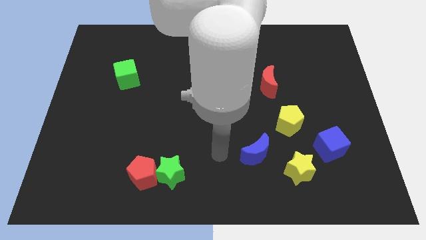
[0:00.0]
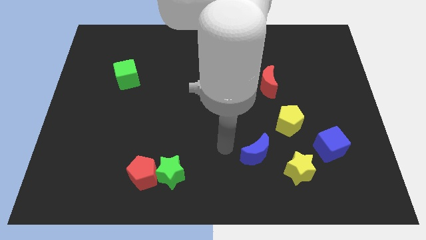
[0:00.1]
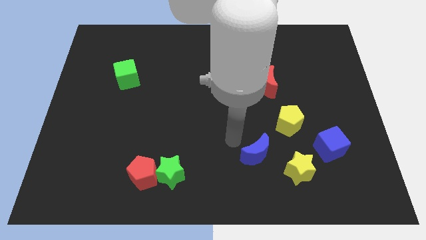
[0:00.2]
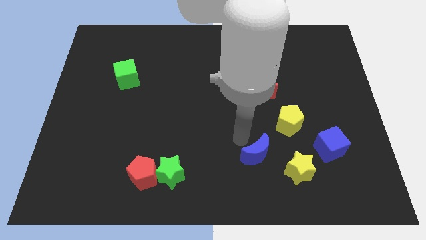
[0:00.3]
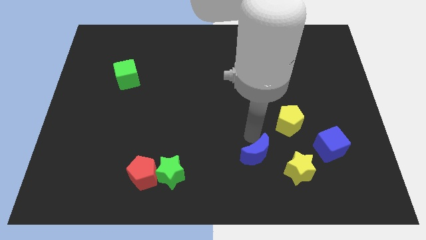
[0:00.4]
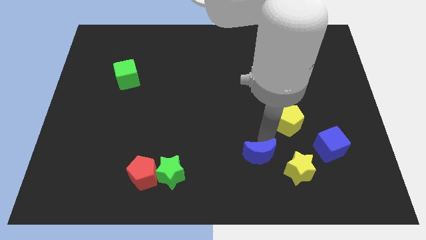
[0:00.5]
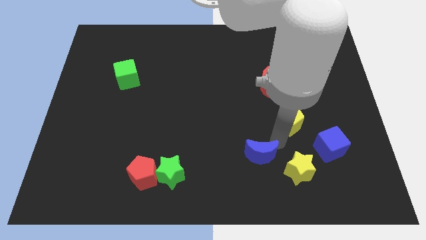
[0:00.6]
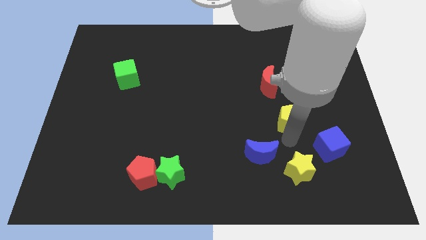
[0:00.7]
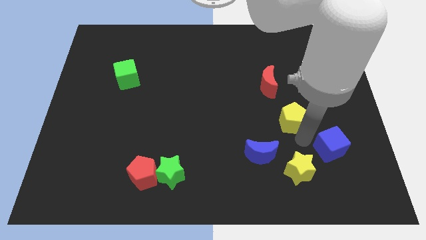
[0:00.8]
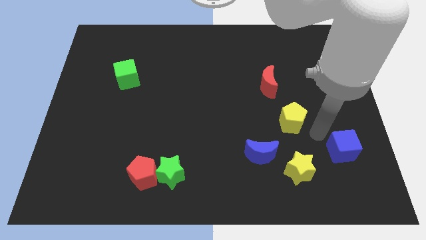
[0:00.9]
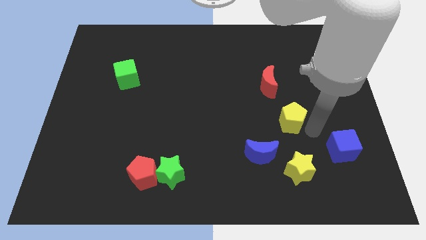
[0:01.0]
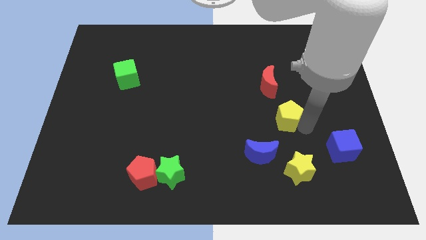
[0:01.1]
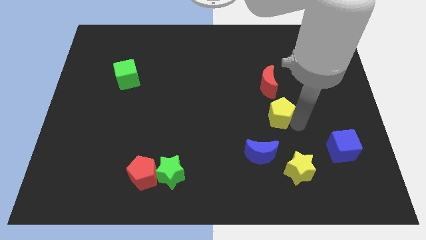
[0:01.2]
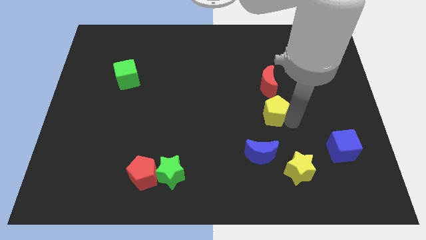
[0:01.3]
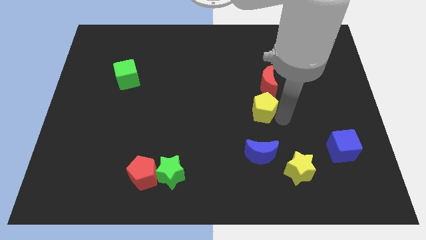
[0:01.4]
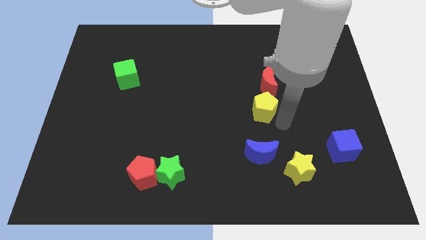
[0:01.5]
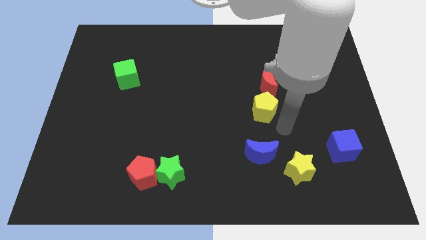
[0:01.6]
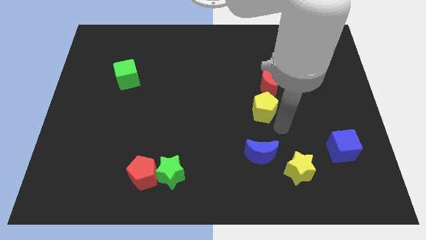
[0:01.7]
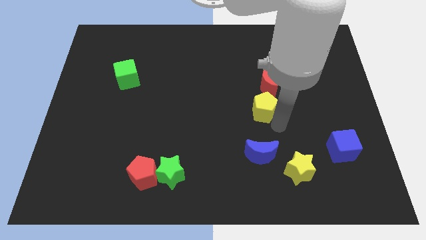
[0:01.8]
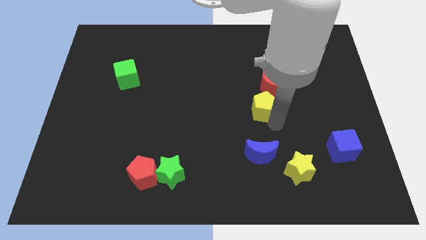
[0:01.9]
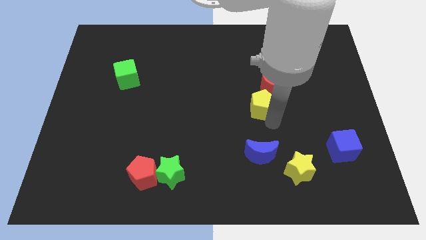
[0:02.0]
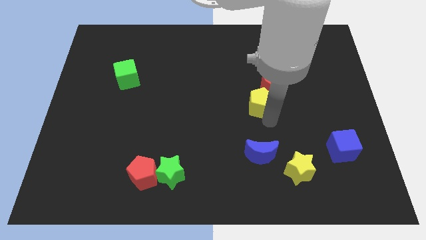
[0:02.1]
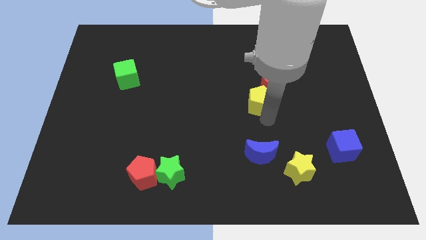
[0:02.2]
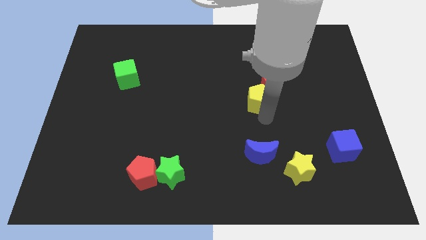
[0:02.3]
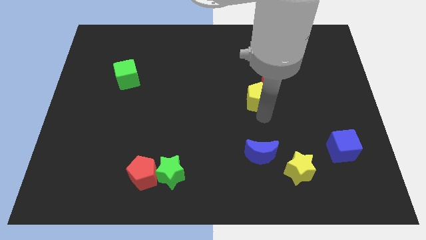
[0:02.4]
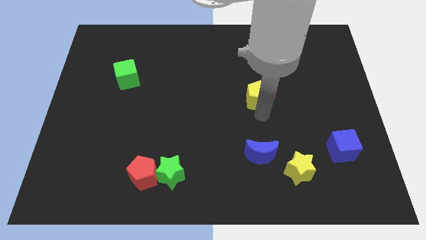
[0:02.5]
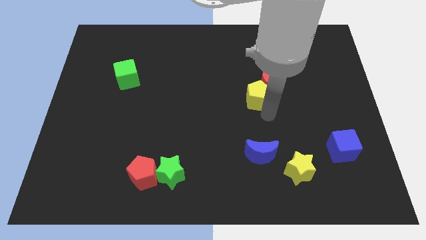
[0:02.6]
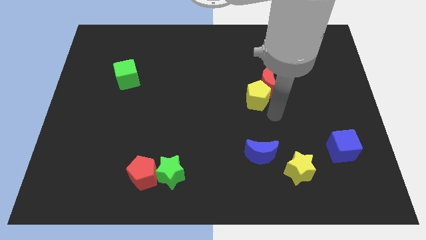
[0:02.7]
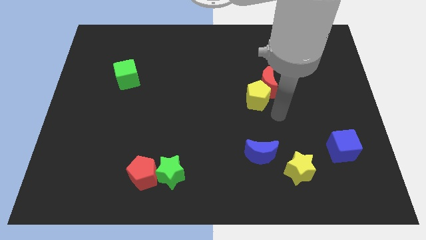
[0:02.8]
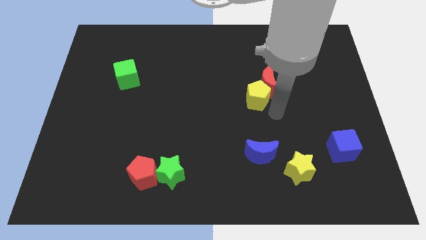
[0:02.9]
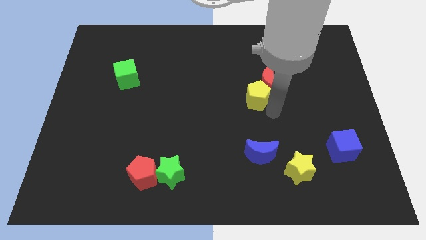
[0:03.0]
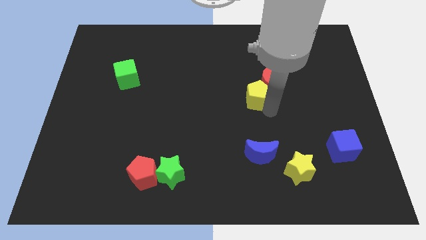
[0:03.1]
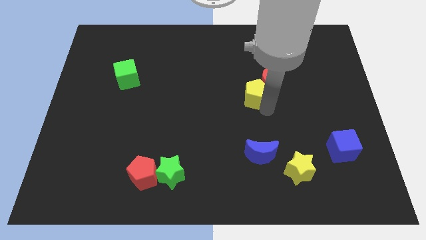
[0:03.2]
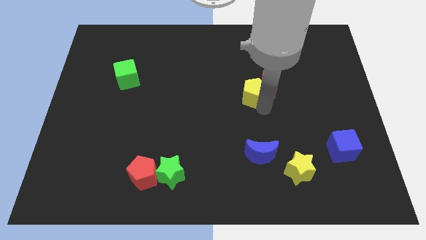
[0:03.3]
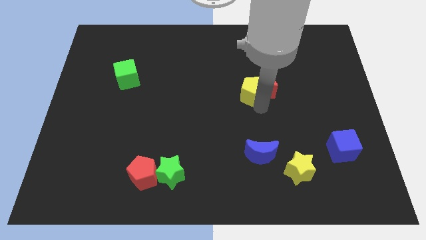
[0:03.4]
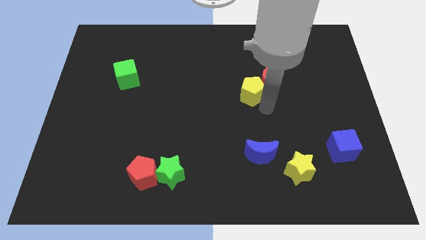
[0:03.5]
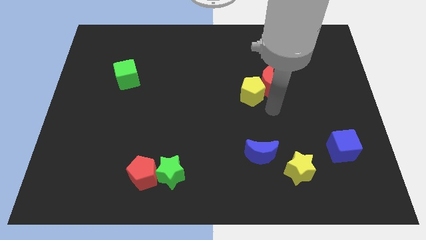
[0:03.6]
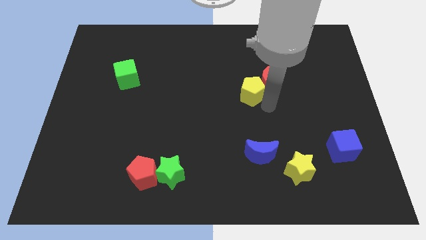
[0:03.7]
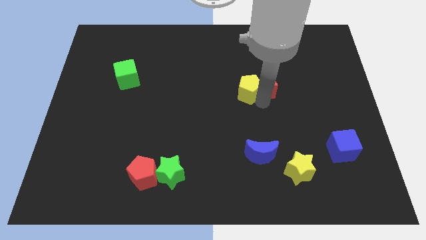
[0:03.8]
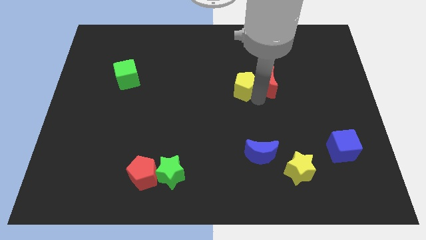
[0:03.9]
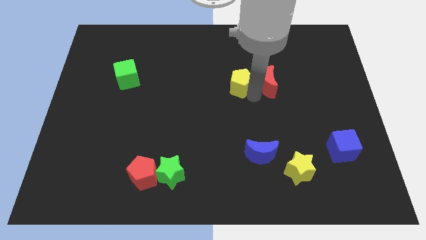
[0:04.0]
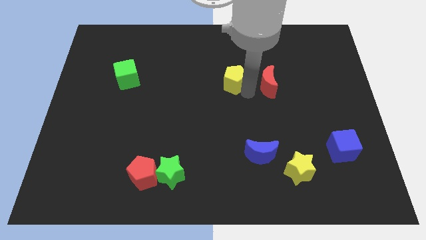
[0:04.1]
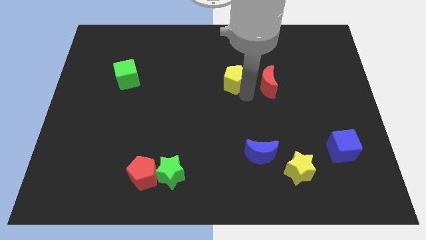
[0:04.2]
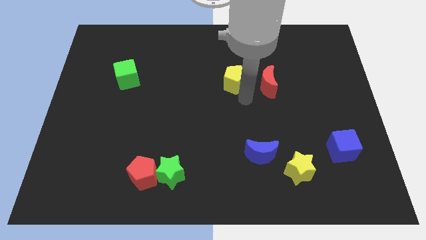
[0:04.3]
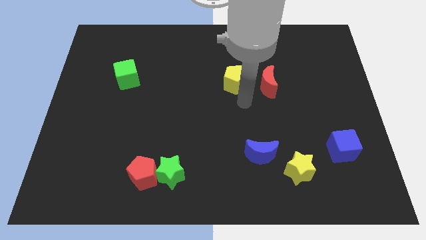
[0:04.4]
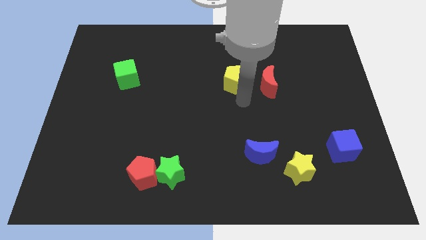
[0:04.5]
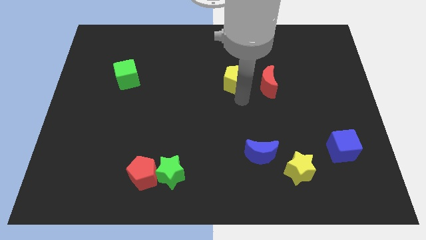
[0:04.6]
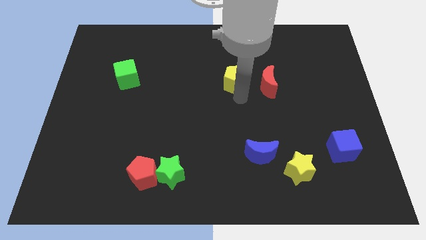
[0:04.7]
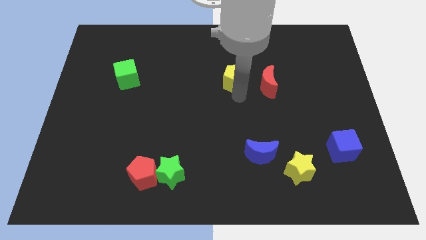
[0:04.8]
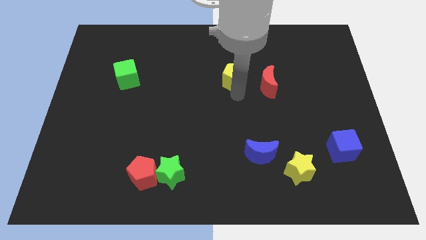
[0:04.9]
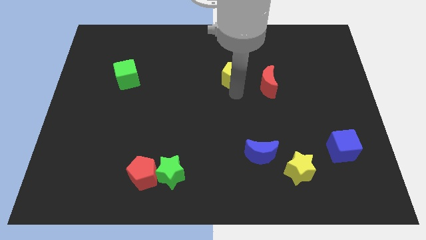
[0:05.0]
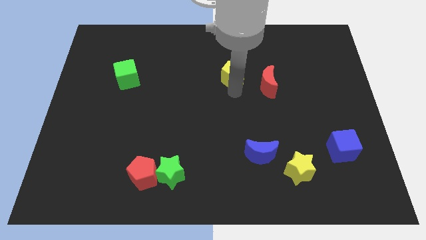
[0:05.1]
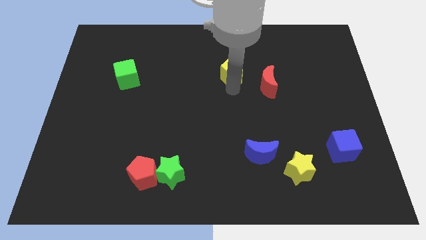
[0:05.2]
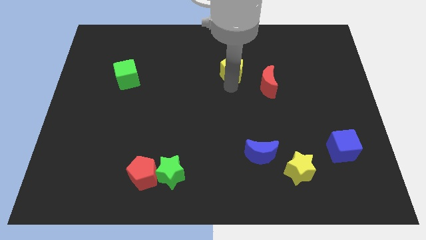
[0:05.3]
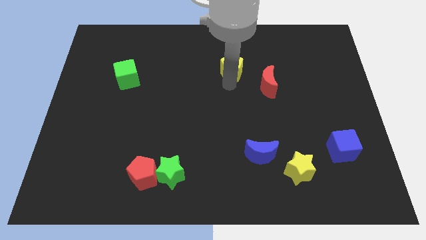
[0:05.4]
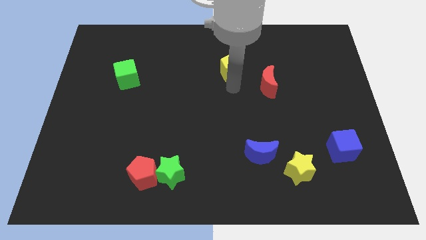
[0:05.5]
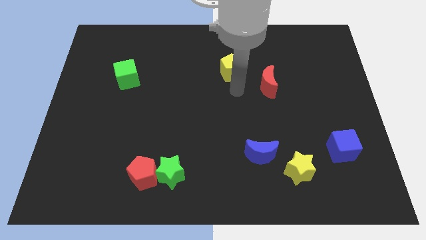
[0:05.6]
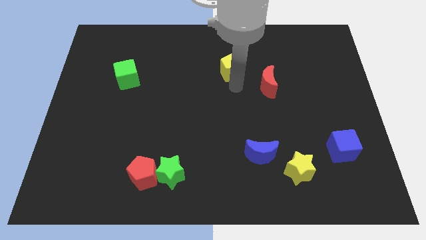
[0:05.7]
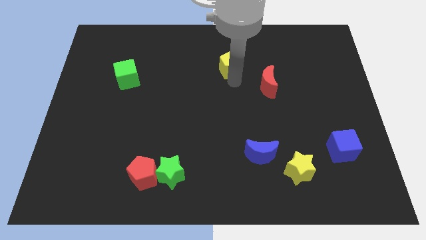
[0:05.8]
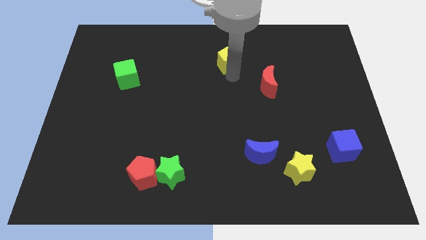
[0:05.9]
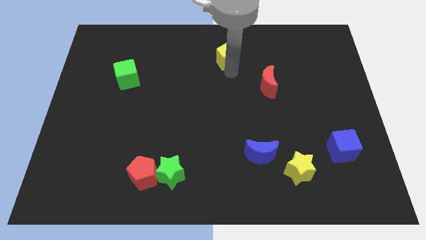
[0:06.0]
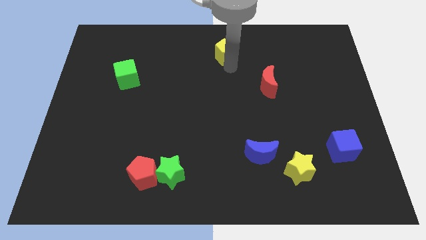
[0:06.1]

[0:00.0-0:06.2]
put the yellow pentagon to the top side
